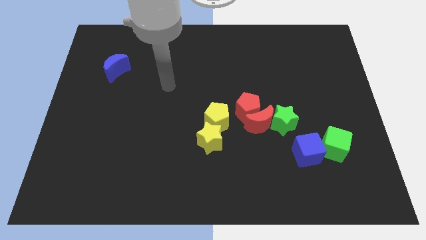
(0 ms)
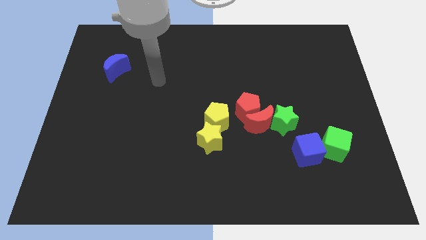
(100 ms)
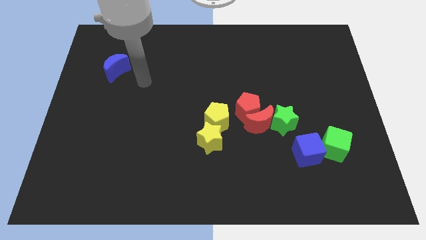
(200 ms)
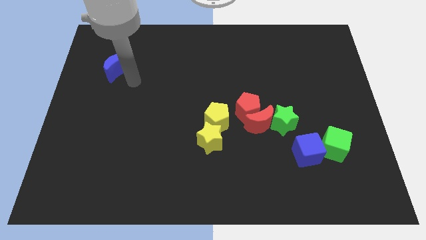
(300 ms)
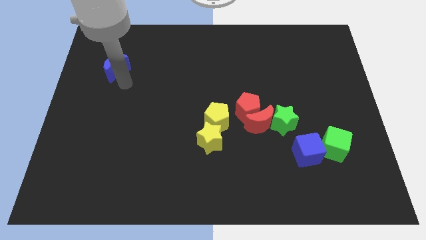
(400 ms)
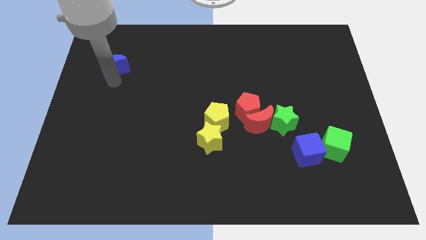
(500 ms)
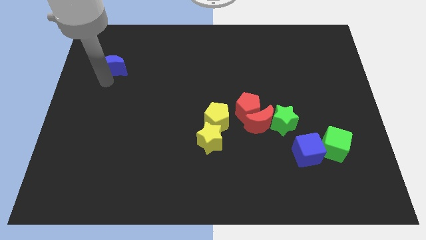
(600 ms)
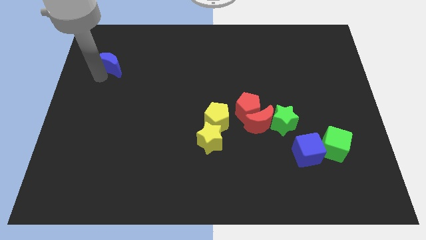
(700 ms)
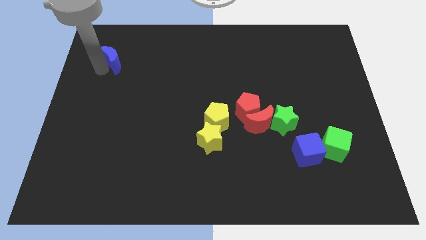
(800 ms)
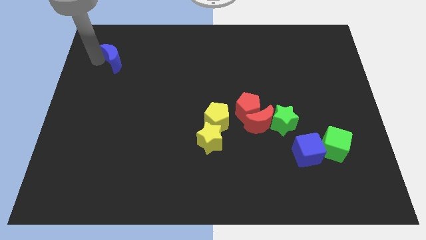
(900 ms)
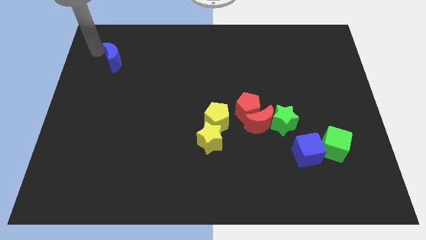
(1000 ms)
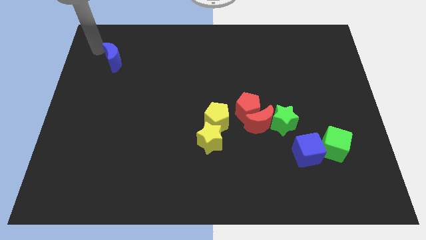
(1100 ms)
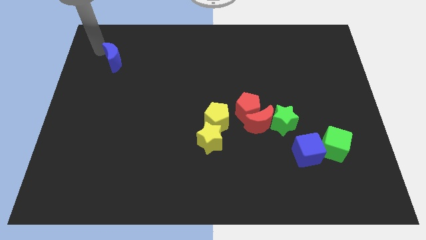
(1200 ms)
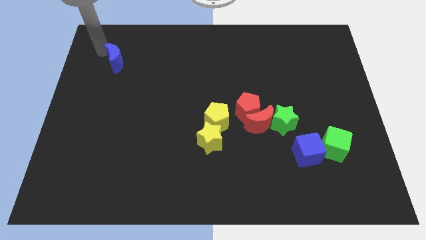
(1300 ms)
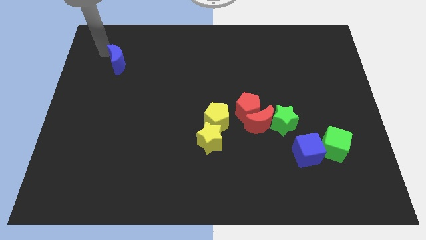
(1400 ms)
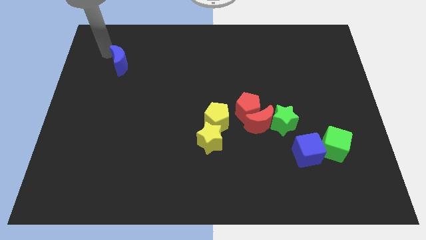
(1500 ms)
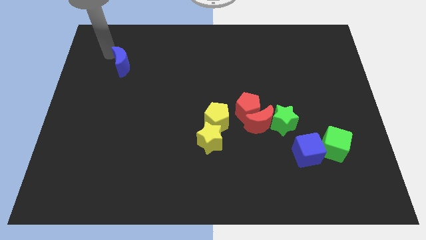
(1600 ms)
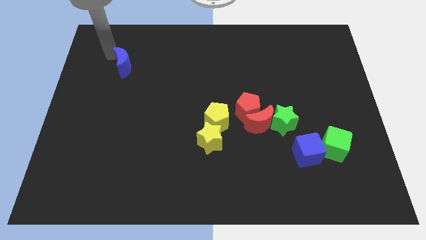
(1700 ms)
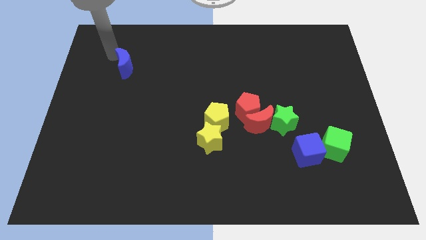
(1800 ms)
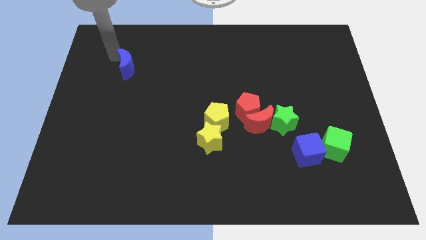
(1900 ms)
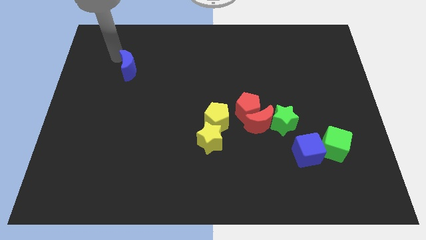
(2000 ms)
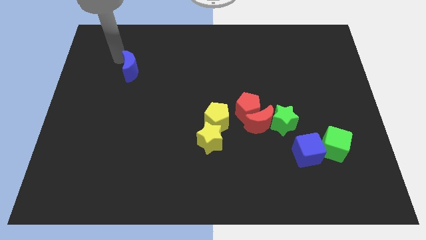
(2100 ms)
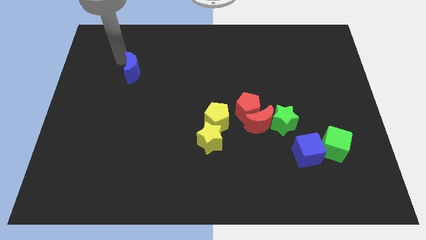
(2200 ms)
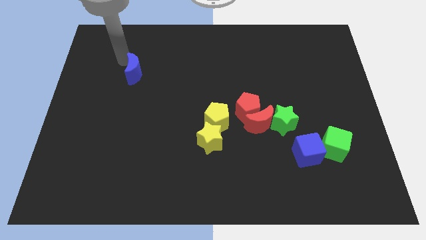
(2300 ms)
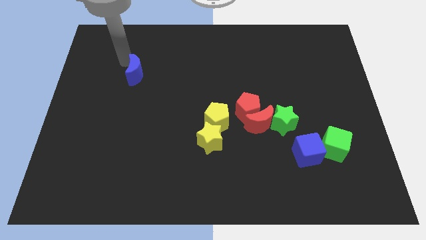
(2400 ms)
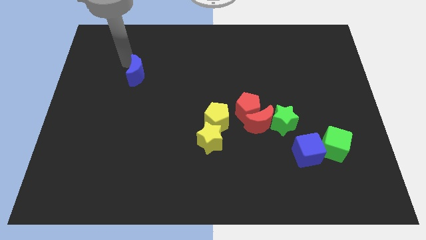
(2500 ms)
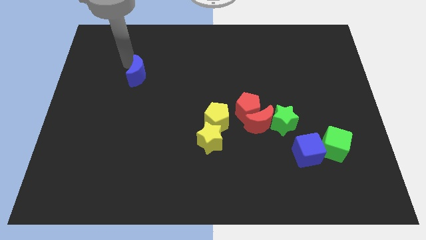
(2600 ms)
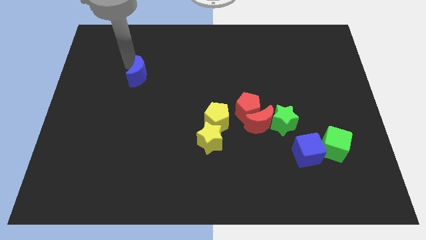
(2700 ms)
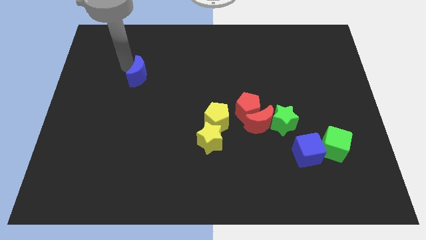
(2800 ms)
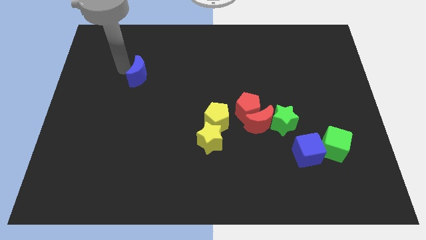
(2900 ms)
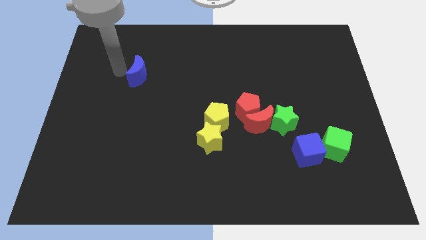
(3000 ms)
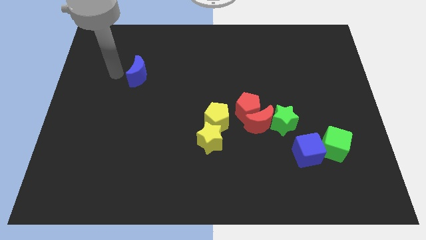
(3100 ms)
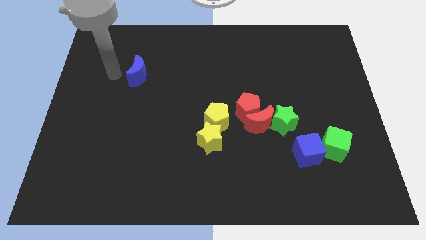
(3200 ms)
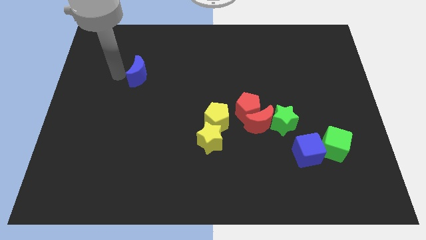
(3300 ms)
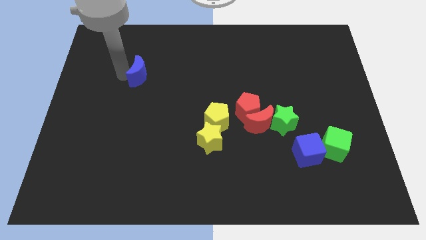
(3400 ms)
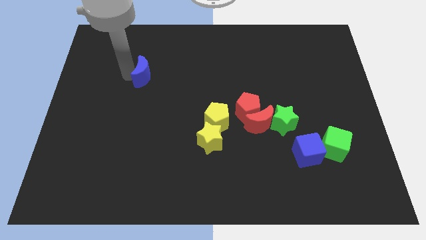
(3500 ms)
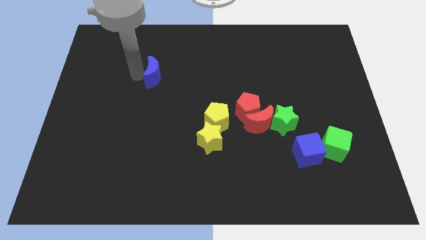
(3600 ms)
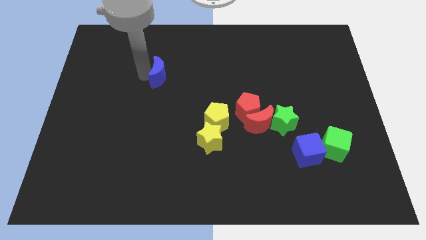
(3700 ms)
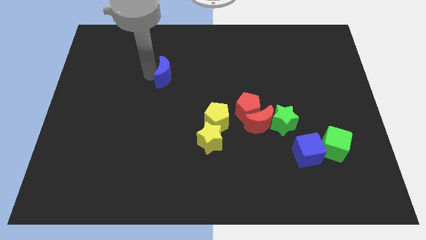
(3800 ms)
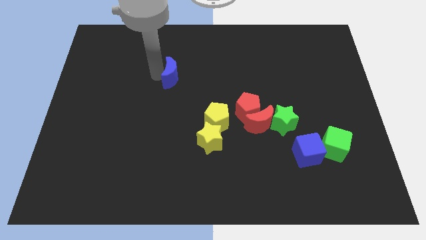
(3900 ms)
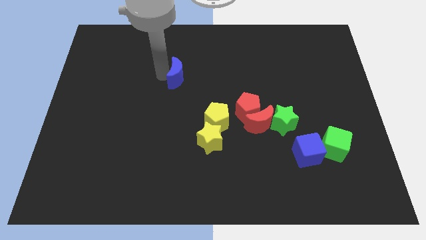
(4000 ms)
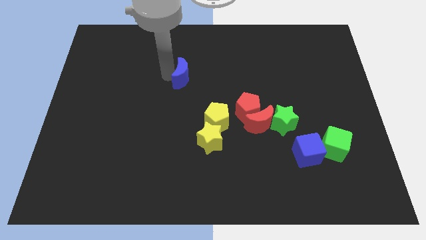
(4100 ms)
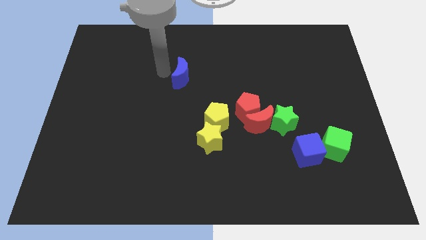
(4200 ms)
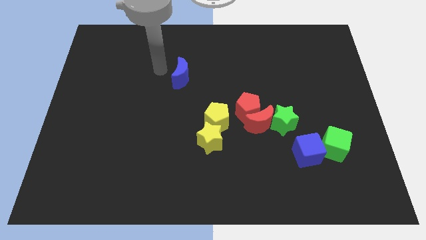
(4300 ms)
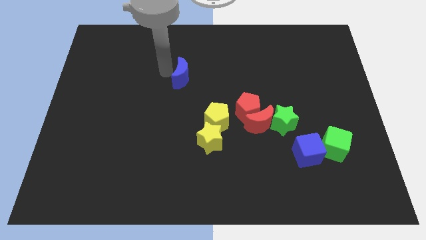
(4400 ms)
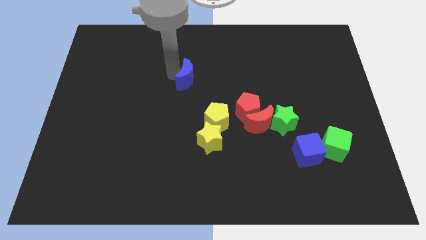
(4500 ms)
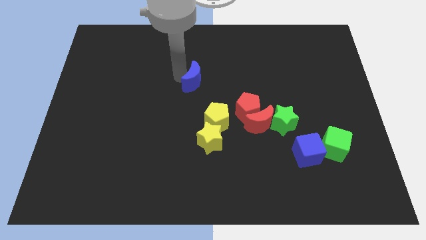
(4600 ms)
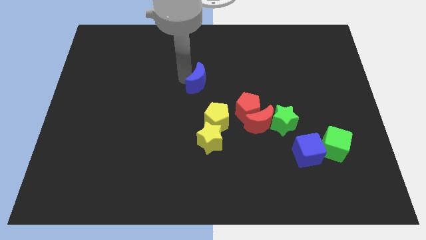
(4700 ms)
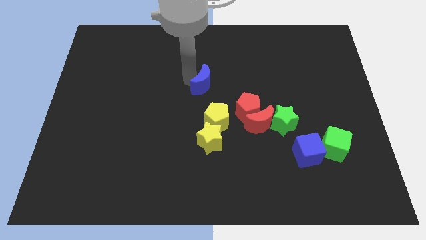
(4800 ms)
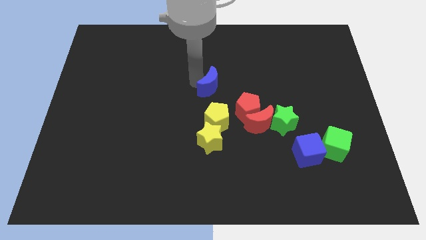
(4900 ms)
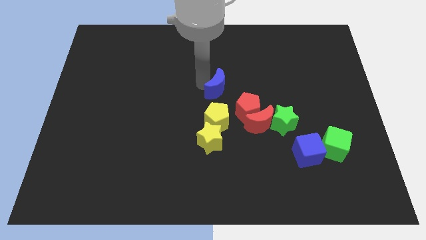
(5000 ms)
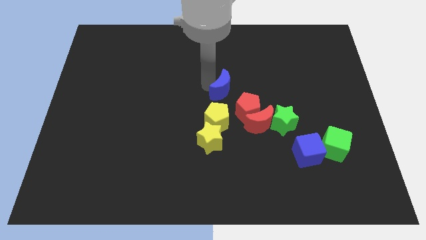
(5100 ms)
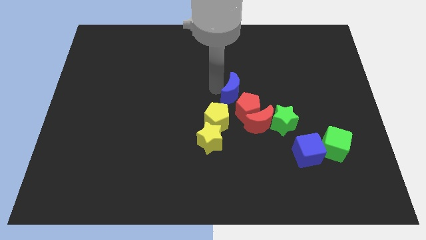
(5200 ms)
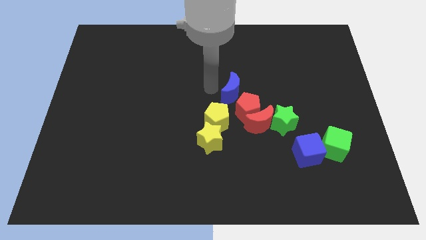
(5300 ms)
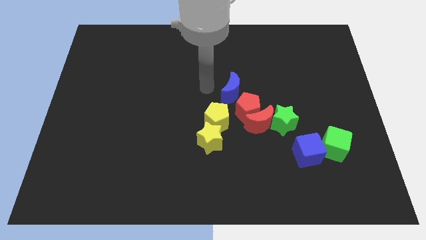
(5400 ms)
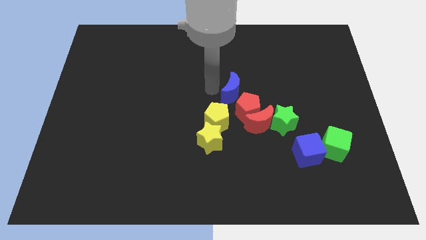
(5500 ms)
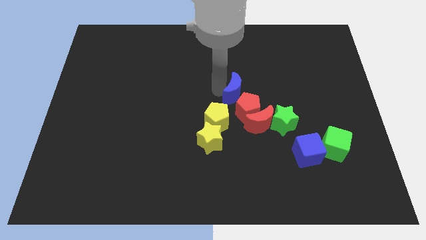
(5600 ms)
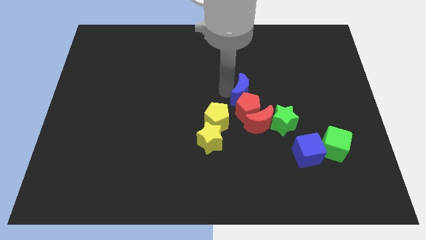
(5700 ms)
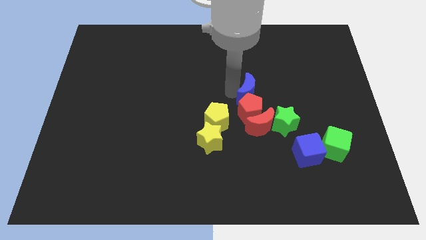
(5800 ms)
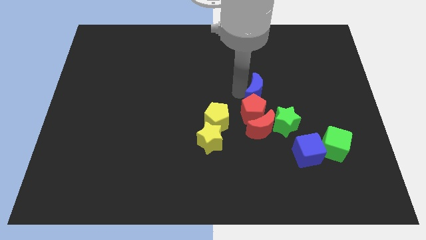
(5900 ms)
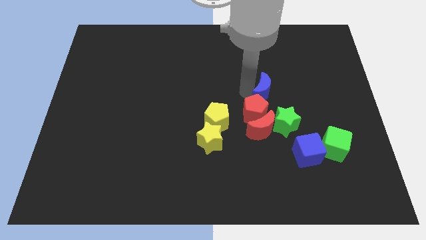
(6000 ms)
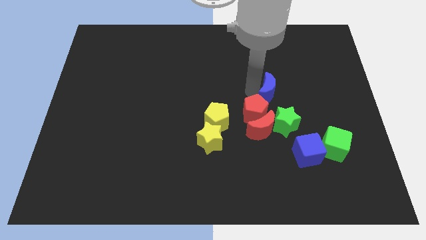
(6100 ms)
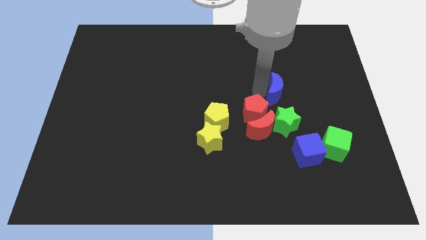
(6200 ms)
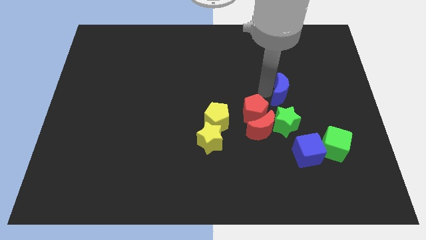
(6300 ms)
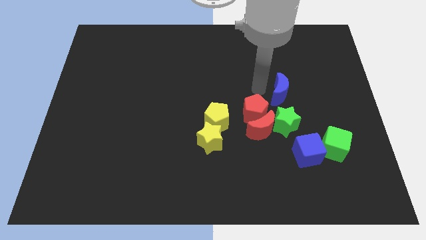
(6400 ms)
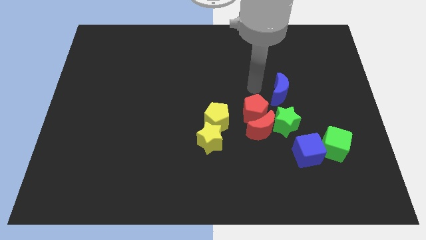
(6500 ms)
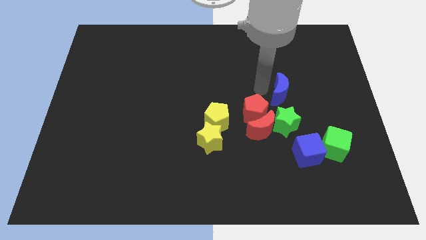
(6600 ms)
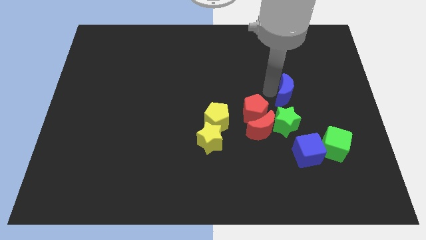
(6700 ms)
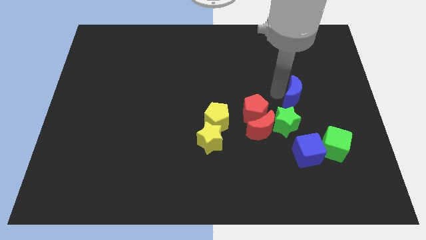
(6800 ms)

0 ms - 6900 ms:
push the blue moon to the top side of the blue cube
